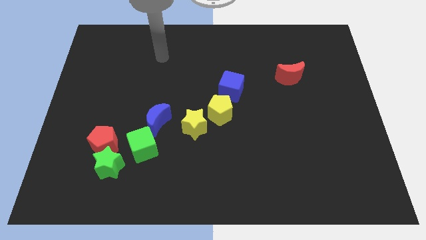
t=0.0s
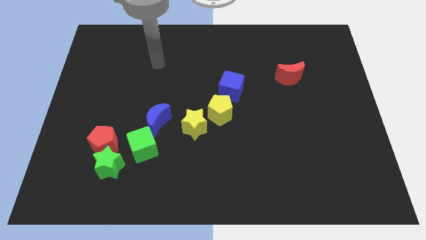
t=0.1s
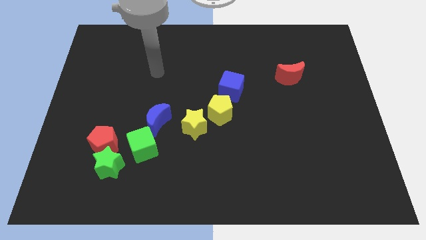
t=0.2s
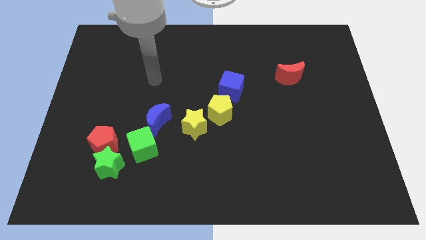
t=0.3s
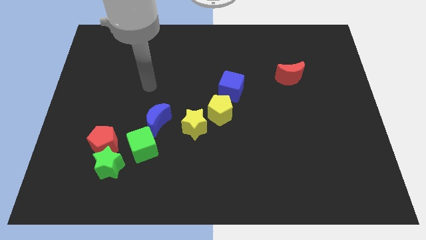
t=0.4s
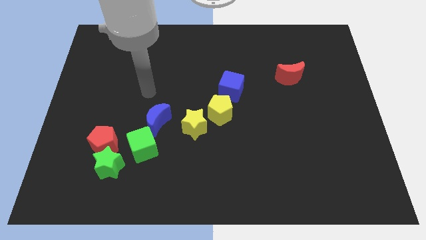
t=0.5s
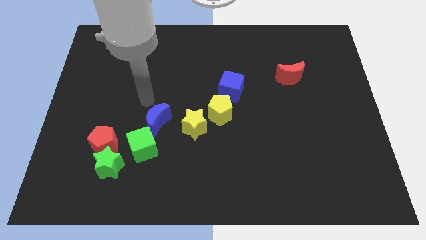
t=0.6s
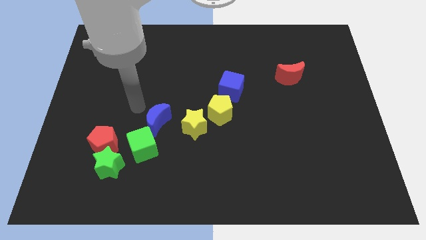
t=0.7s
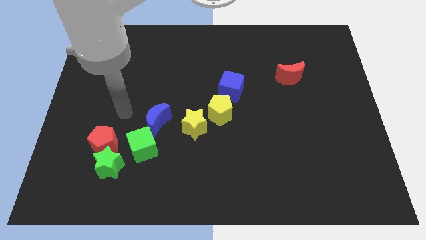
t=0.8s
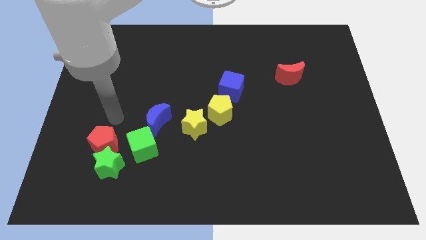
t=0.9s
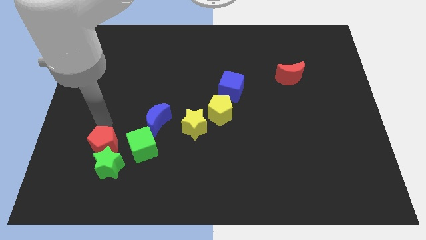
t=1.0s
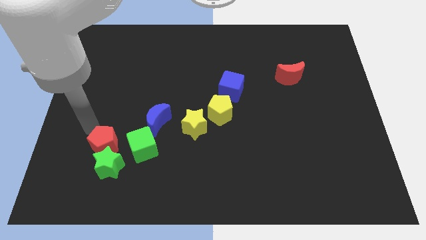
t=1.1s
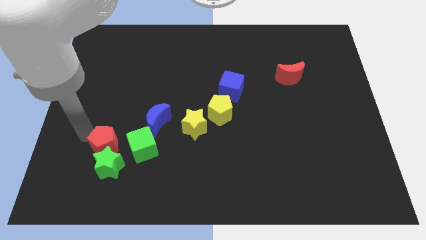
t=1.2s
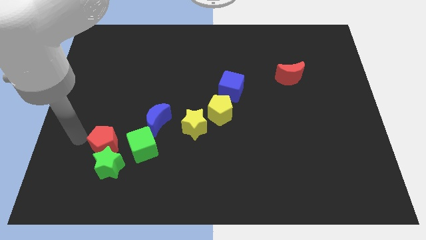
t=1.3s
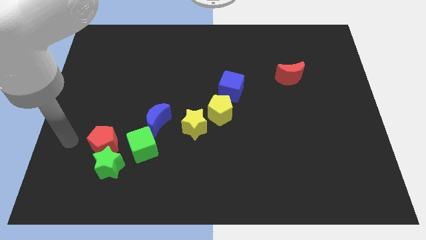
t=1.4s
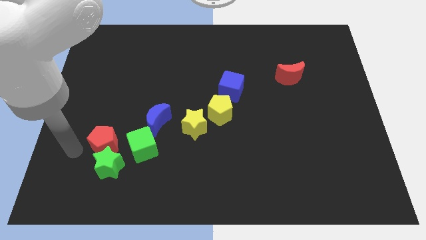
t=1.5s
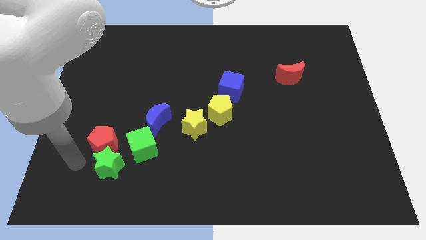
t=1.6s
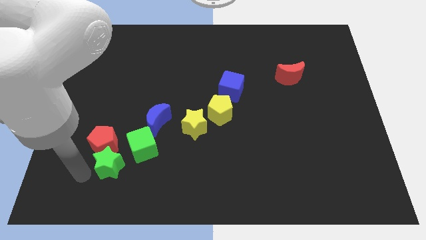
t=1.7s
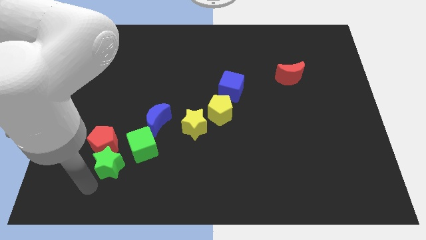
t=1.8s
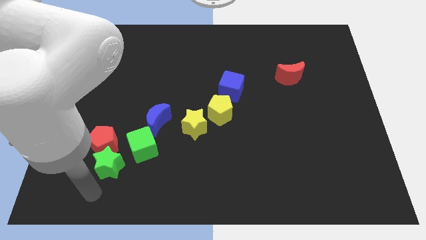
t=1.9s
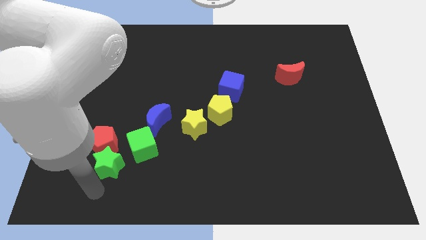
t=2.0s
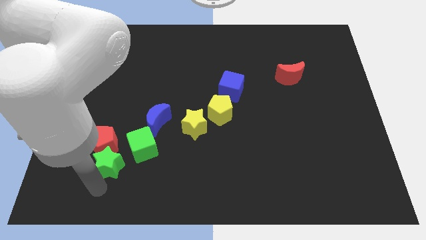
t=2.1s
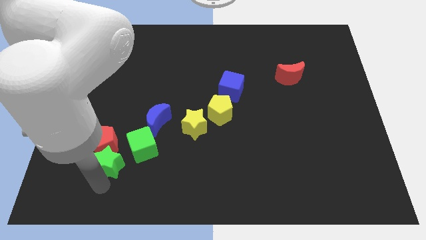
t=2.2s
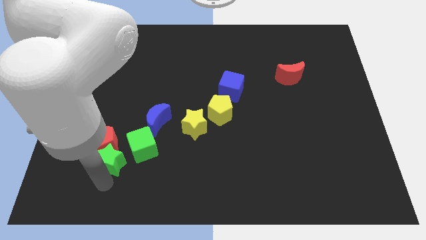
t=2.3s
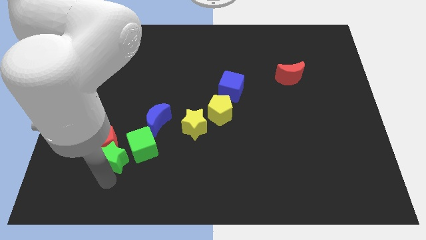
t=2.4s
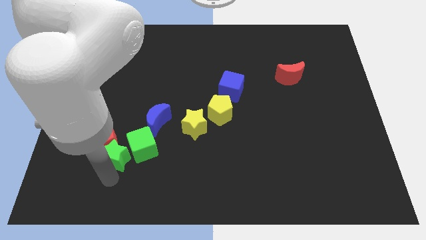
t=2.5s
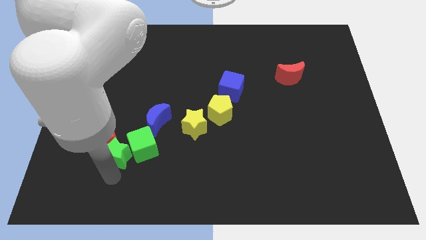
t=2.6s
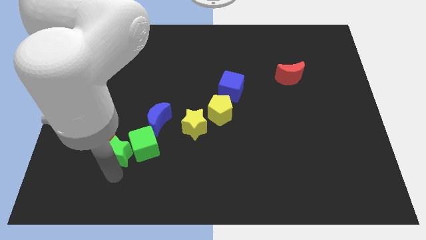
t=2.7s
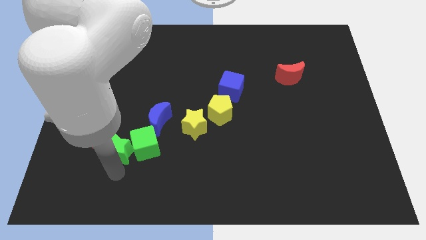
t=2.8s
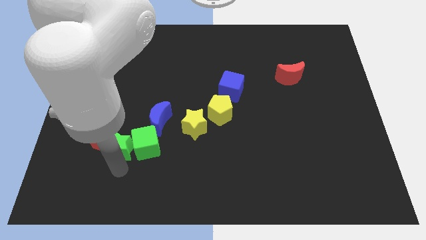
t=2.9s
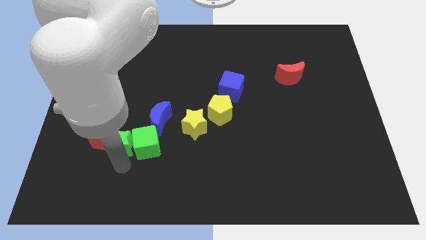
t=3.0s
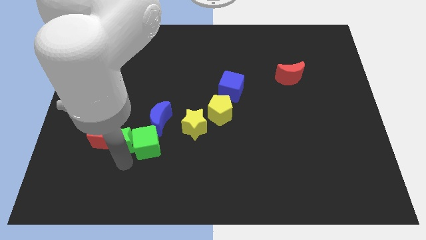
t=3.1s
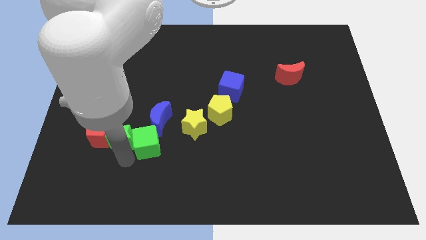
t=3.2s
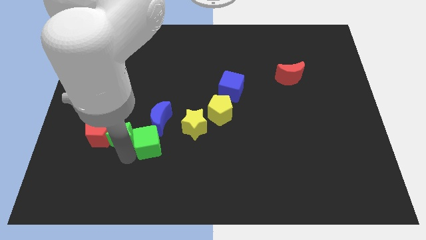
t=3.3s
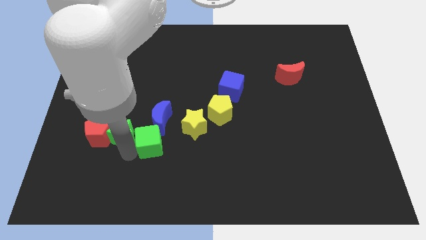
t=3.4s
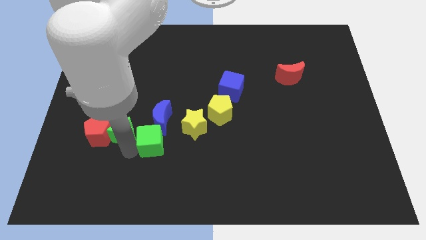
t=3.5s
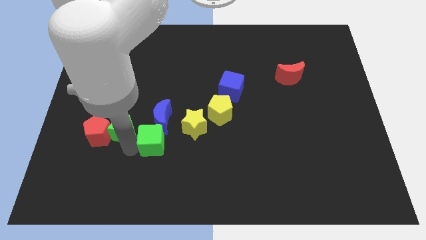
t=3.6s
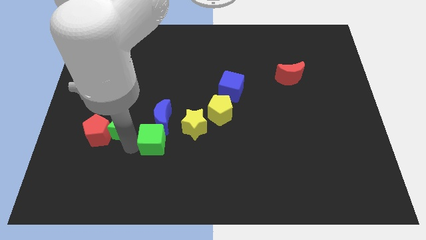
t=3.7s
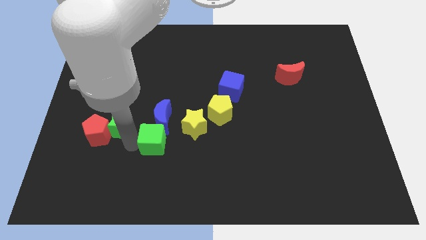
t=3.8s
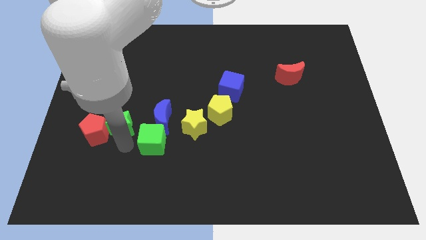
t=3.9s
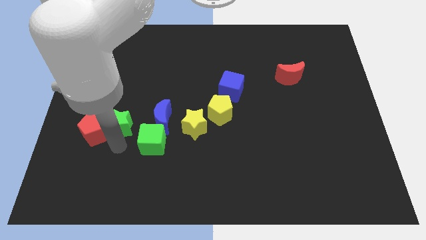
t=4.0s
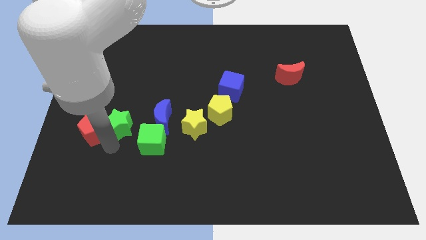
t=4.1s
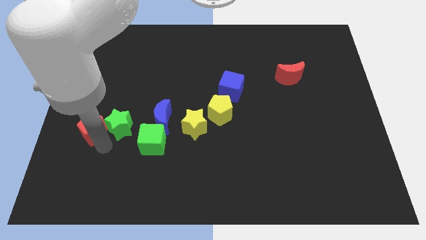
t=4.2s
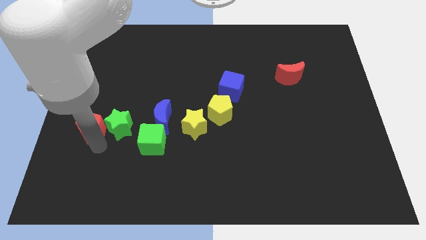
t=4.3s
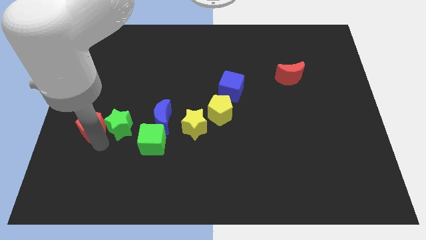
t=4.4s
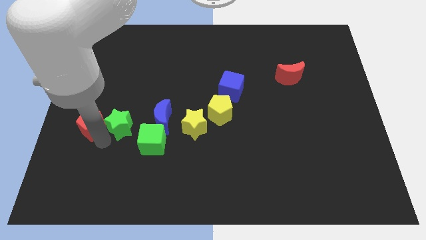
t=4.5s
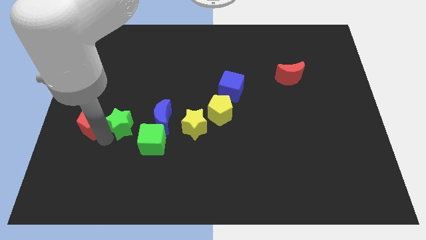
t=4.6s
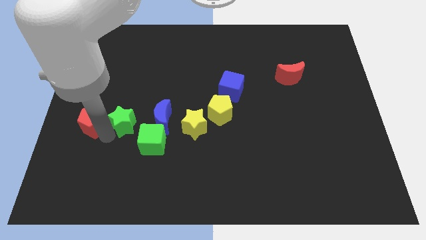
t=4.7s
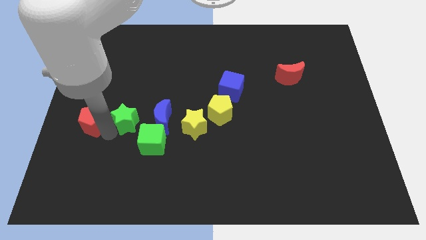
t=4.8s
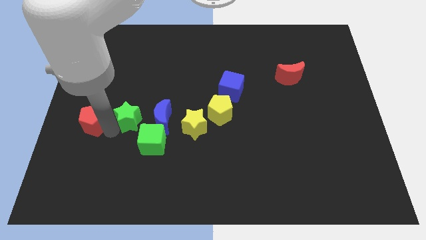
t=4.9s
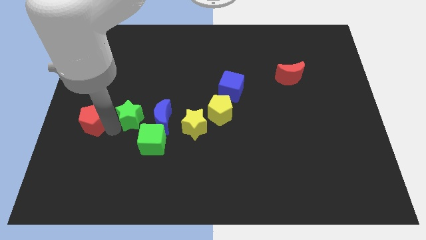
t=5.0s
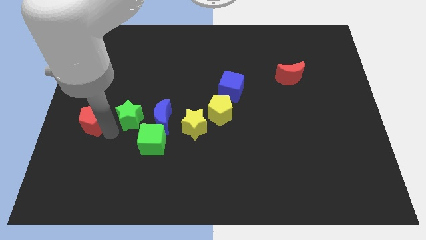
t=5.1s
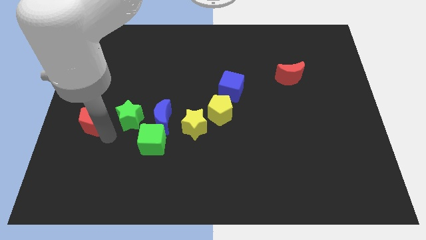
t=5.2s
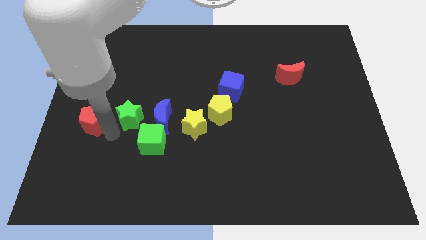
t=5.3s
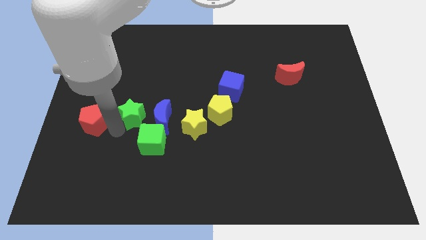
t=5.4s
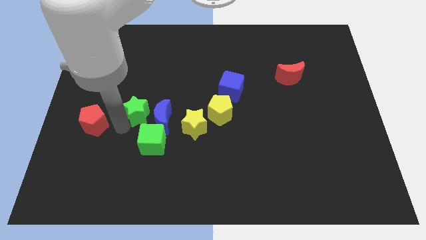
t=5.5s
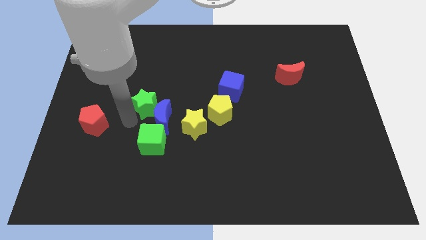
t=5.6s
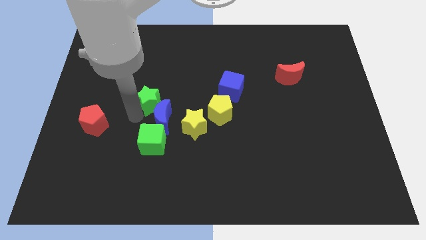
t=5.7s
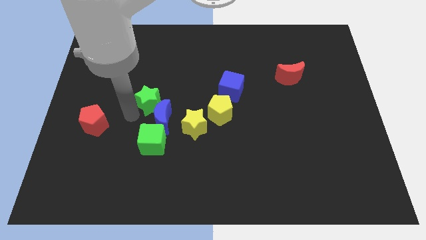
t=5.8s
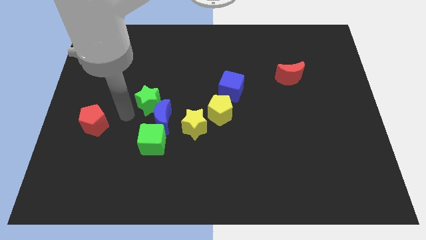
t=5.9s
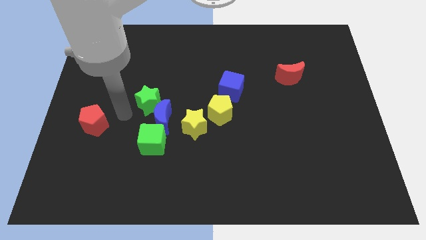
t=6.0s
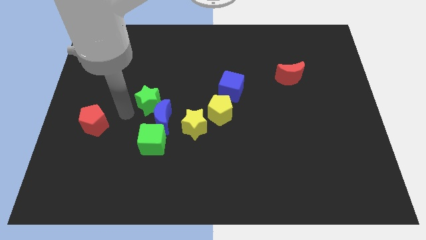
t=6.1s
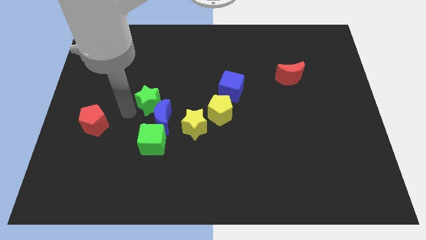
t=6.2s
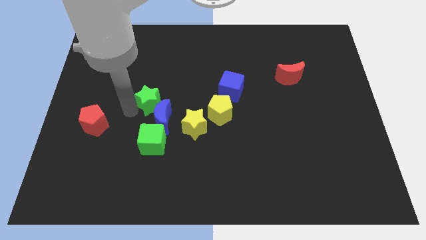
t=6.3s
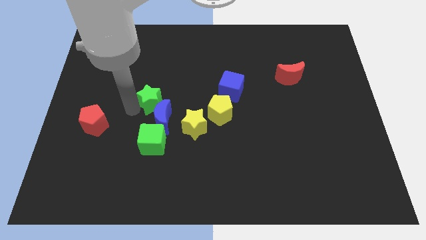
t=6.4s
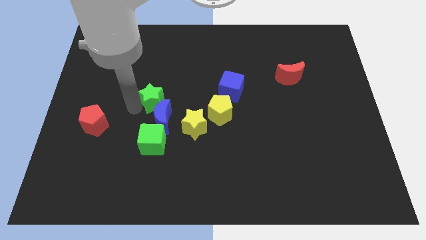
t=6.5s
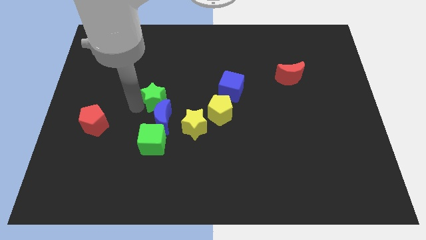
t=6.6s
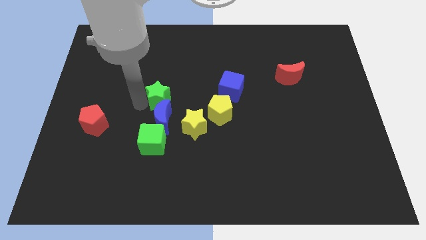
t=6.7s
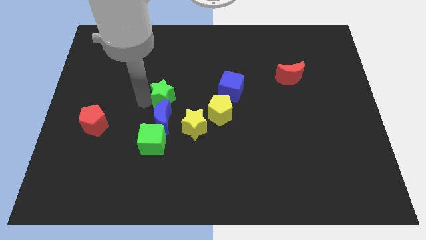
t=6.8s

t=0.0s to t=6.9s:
slide the green star to the center of the board
